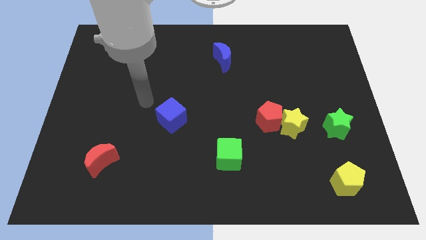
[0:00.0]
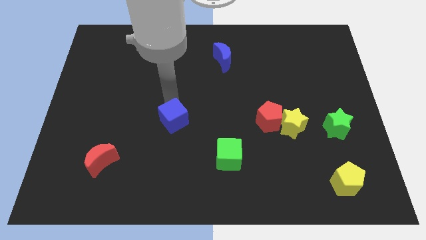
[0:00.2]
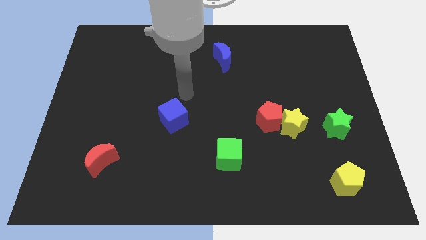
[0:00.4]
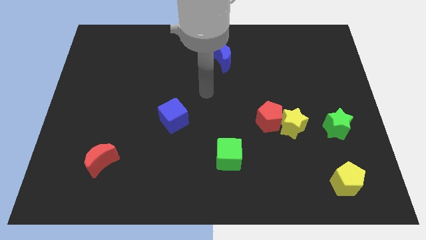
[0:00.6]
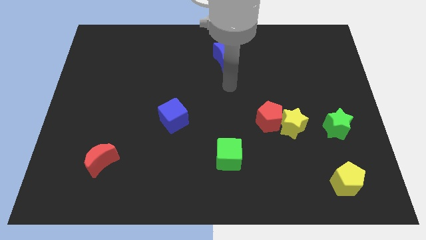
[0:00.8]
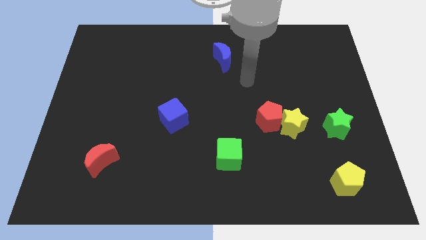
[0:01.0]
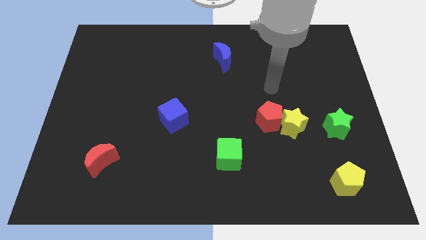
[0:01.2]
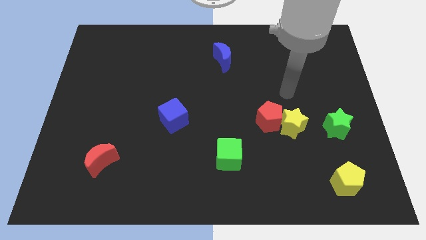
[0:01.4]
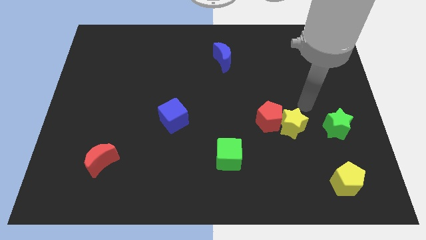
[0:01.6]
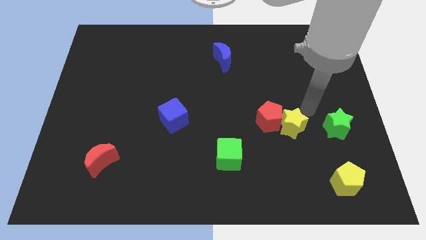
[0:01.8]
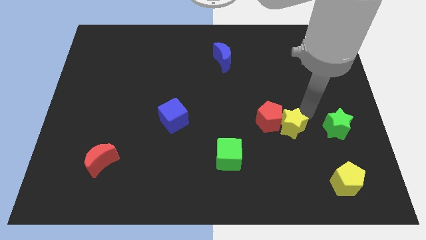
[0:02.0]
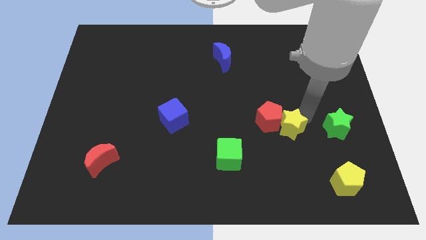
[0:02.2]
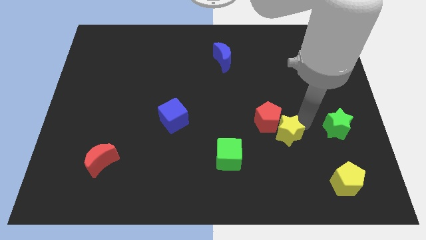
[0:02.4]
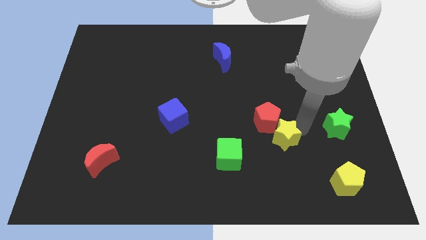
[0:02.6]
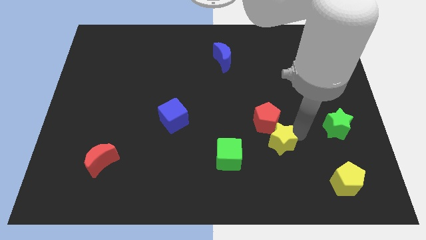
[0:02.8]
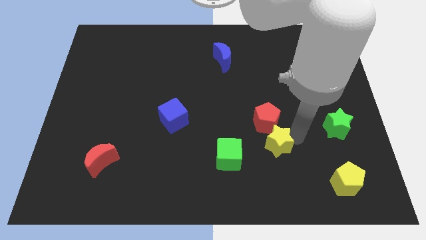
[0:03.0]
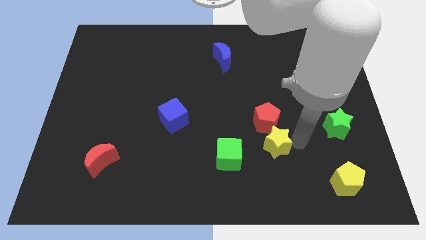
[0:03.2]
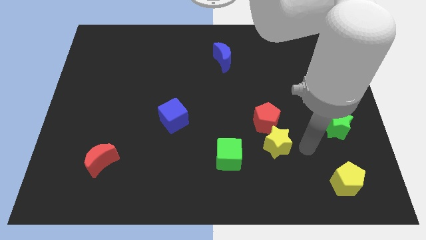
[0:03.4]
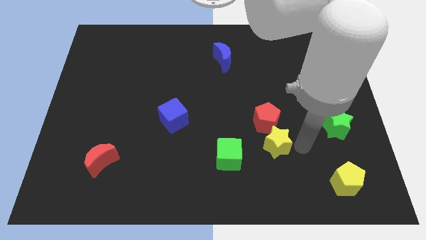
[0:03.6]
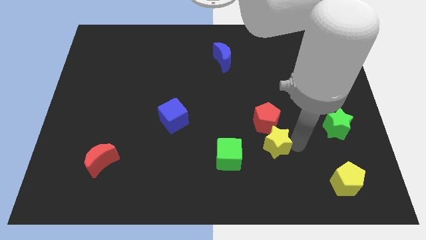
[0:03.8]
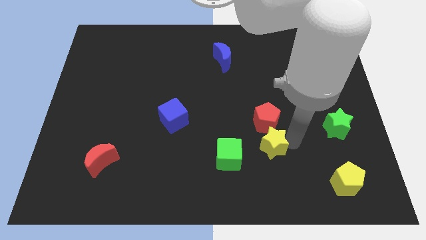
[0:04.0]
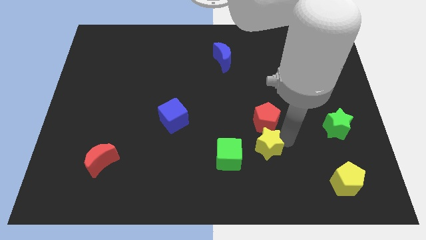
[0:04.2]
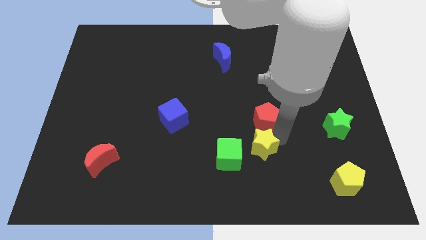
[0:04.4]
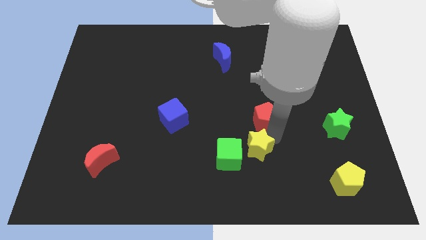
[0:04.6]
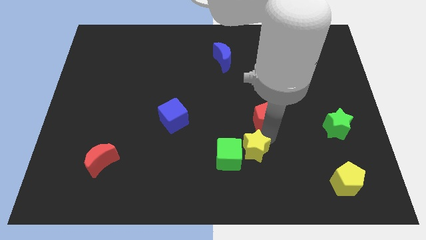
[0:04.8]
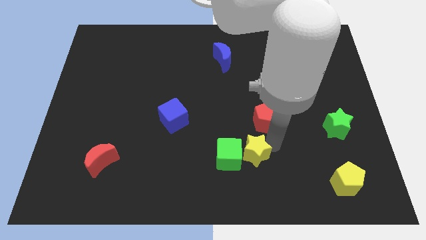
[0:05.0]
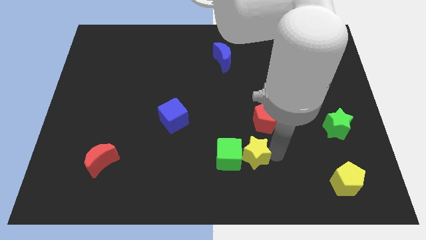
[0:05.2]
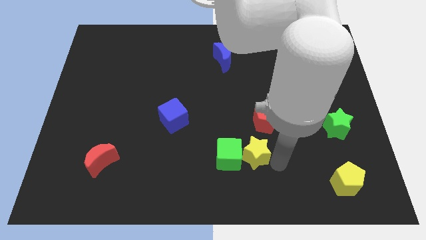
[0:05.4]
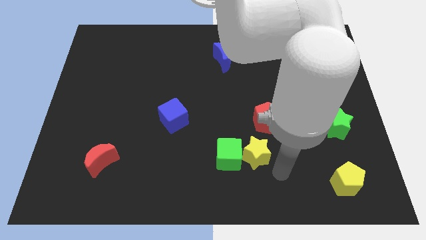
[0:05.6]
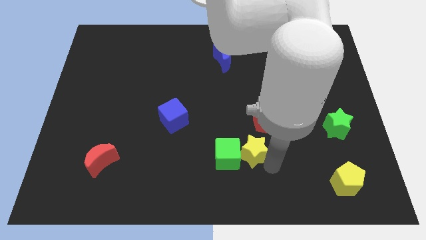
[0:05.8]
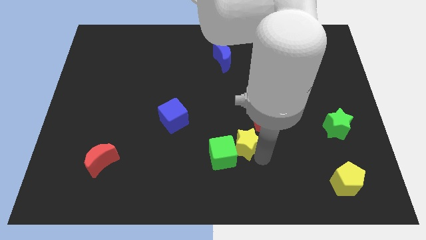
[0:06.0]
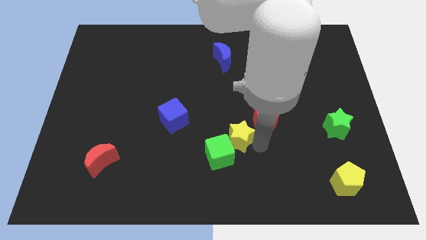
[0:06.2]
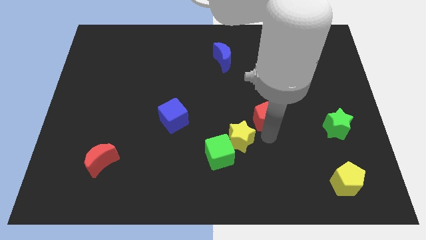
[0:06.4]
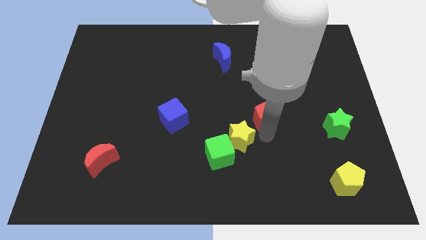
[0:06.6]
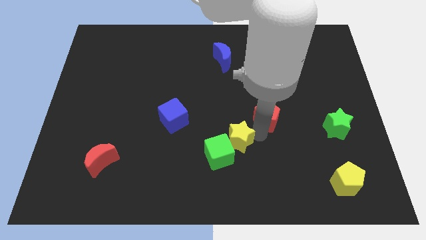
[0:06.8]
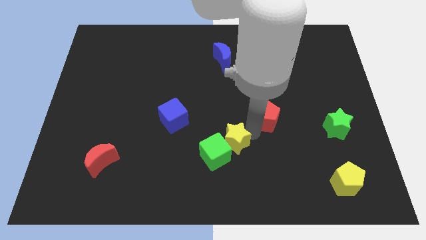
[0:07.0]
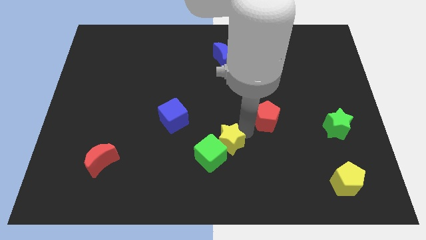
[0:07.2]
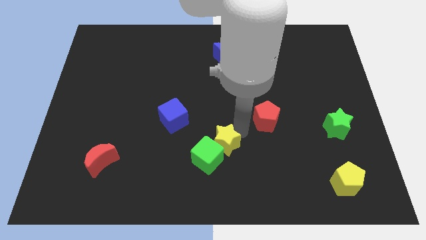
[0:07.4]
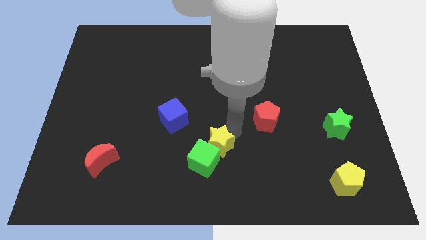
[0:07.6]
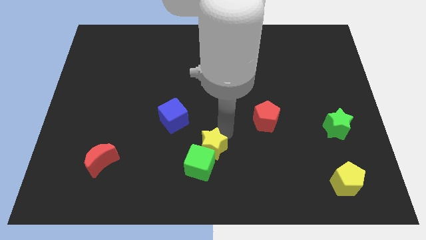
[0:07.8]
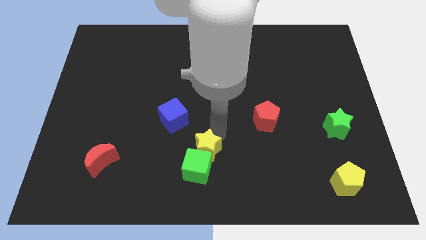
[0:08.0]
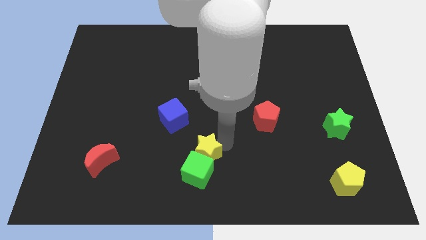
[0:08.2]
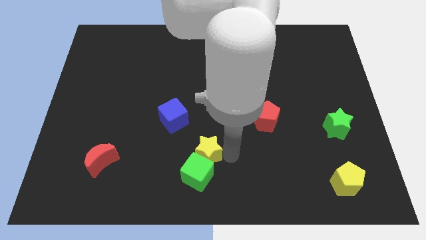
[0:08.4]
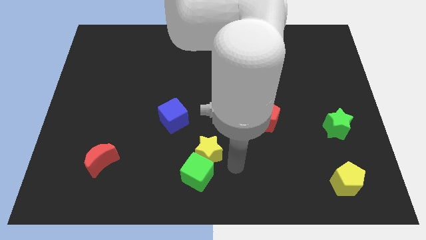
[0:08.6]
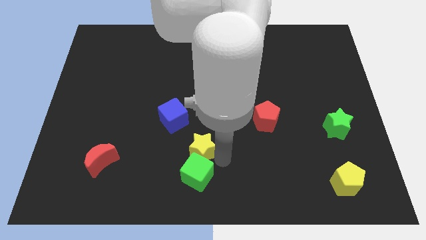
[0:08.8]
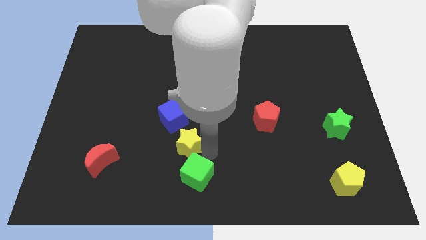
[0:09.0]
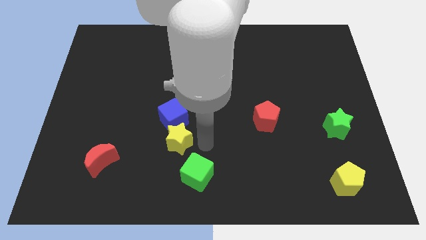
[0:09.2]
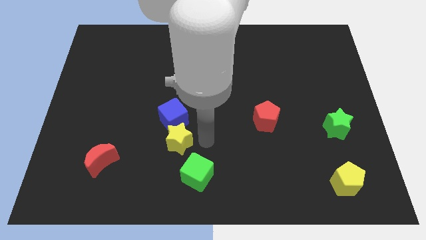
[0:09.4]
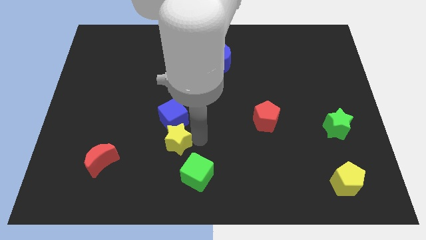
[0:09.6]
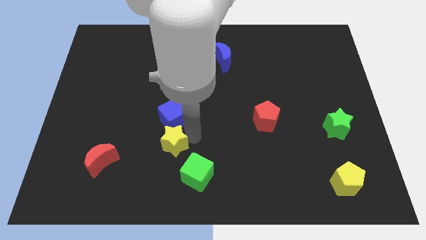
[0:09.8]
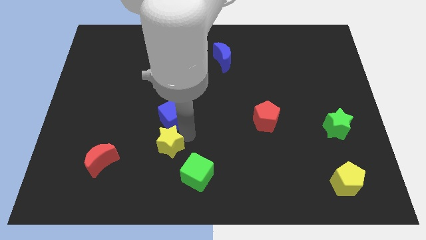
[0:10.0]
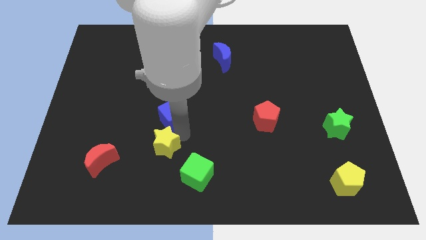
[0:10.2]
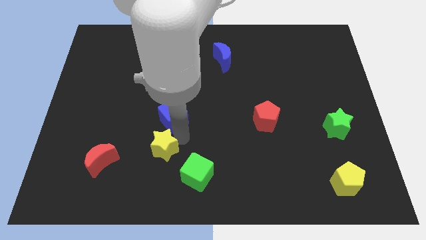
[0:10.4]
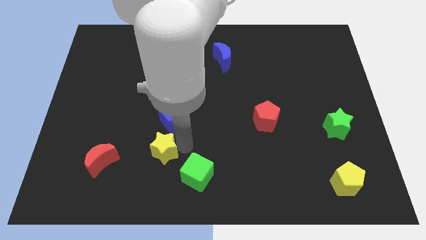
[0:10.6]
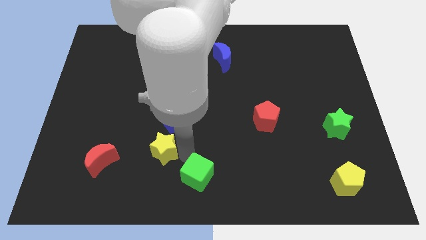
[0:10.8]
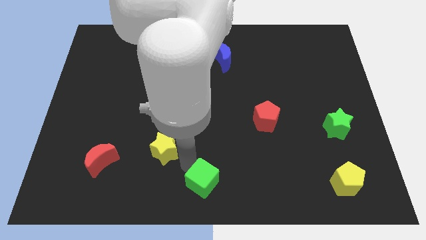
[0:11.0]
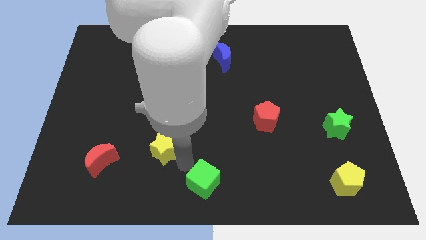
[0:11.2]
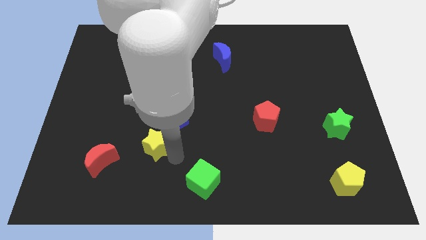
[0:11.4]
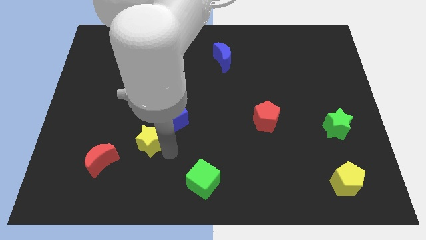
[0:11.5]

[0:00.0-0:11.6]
move the yellow star to the top right of the red moon

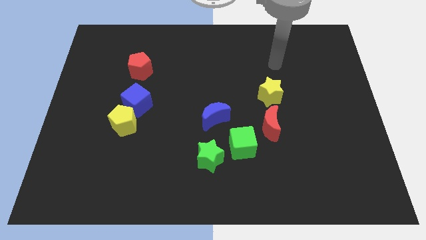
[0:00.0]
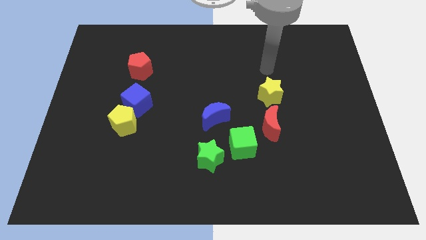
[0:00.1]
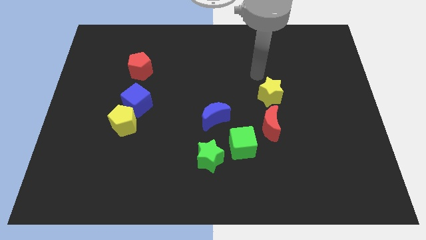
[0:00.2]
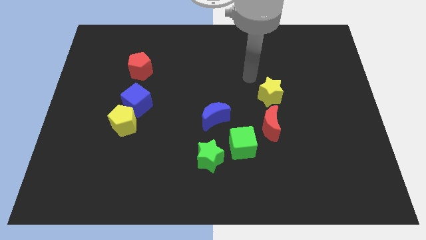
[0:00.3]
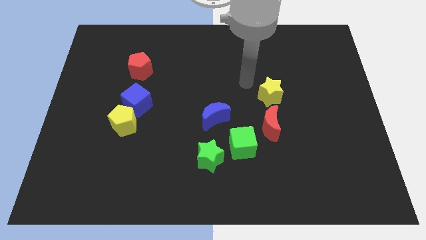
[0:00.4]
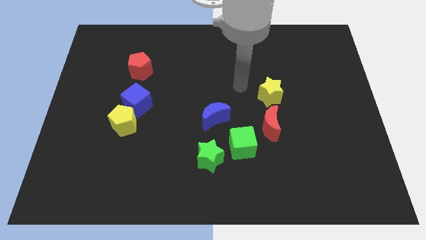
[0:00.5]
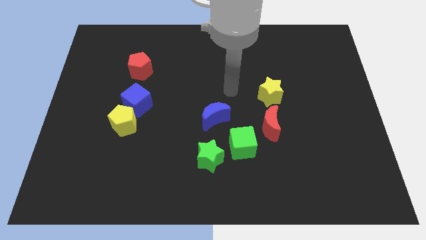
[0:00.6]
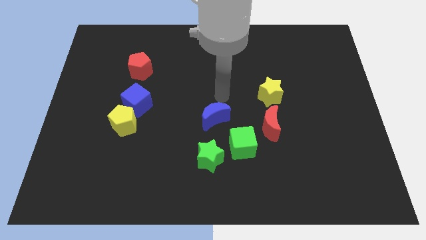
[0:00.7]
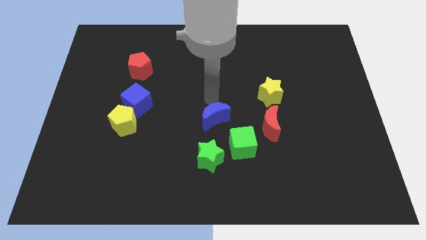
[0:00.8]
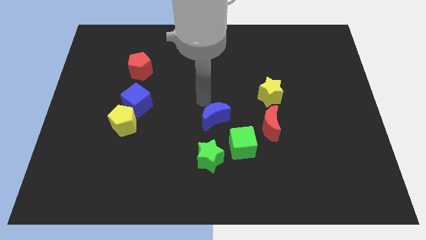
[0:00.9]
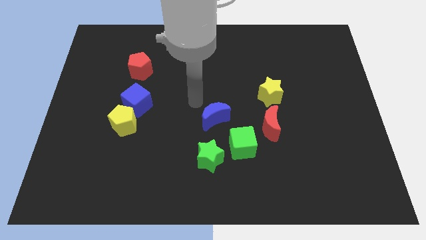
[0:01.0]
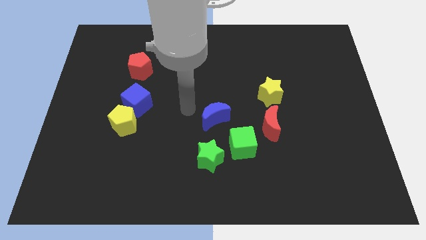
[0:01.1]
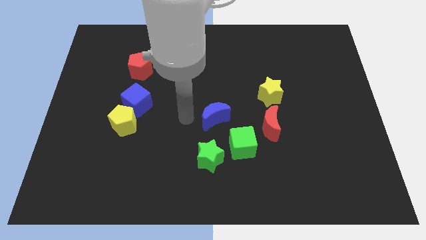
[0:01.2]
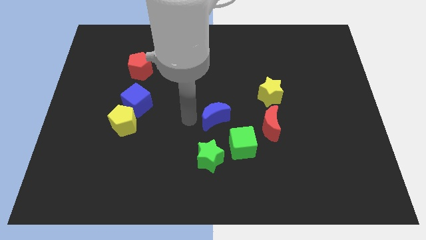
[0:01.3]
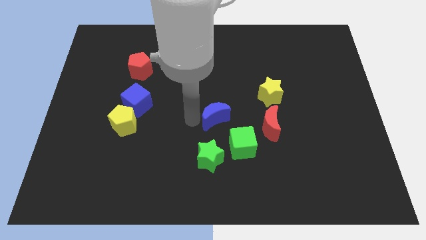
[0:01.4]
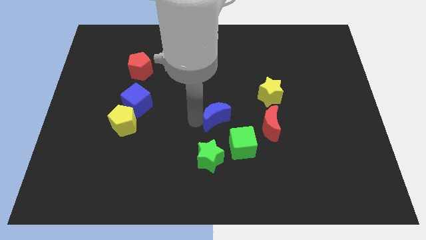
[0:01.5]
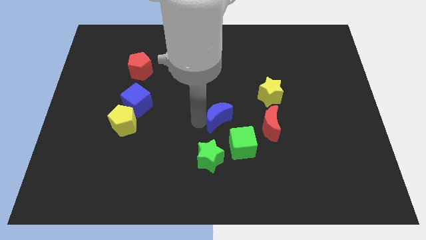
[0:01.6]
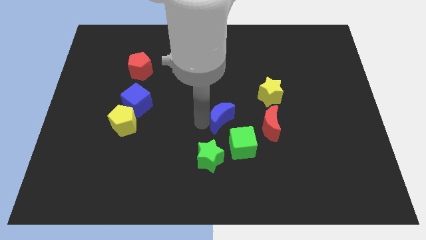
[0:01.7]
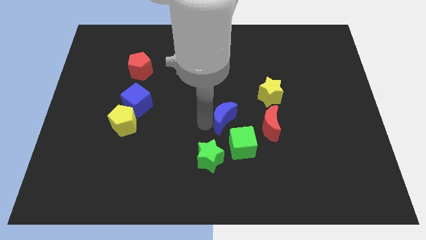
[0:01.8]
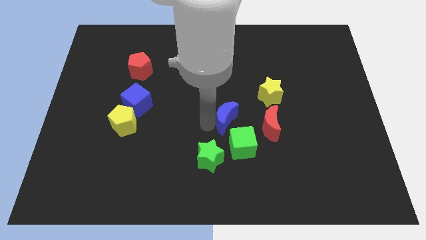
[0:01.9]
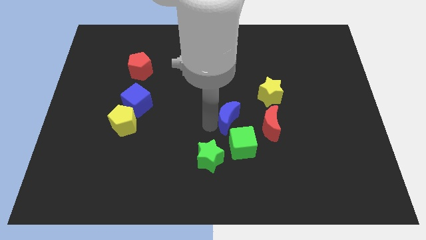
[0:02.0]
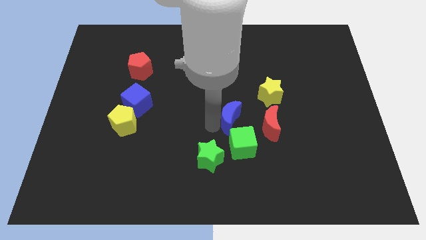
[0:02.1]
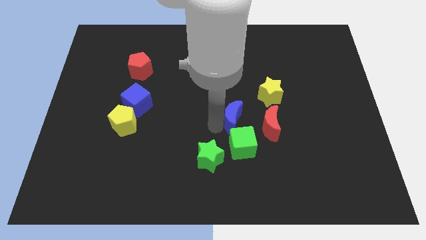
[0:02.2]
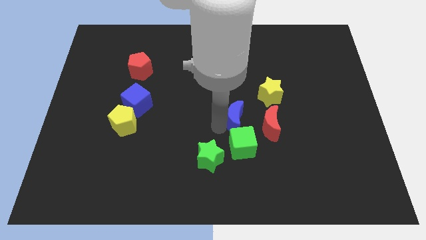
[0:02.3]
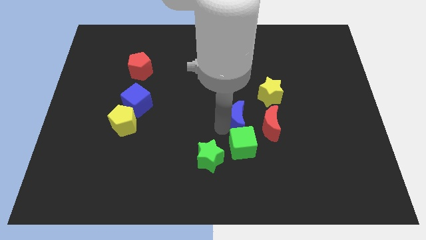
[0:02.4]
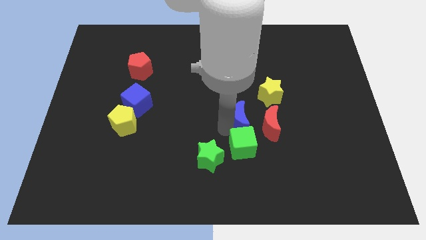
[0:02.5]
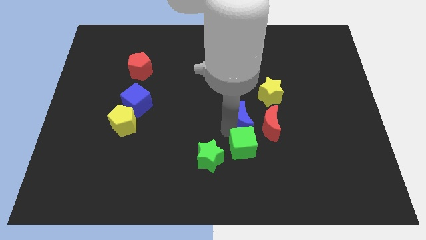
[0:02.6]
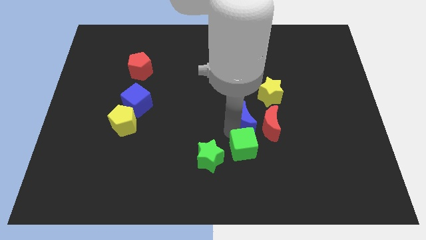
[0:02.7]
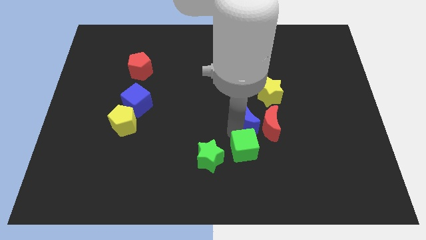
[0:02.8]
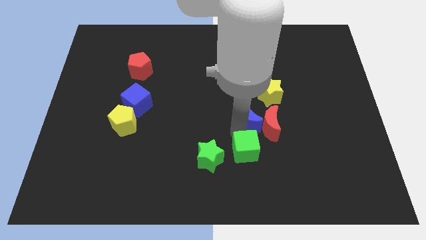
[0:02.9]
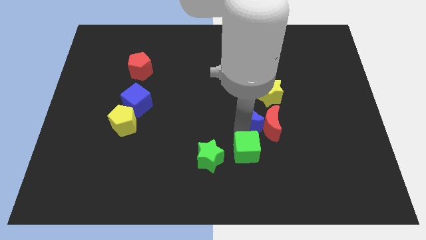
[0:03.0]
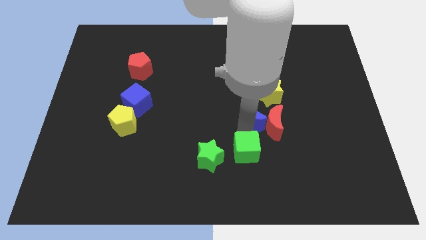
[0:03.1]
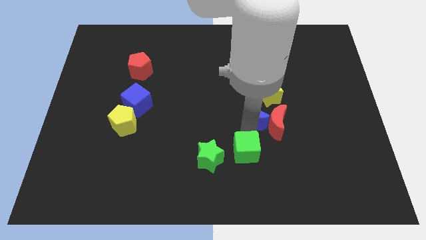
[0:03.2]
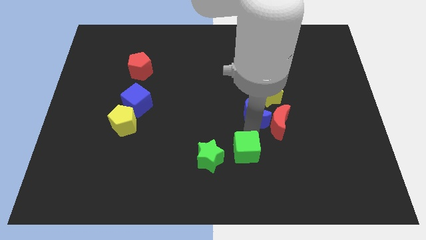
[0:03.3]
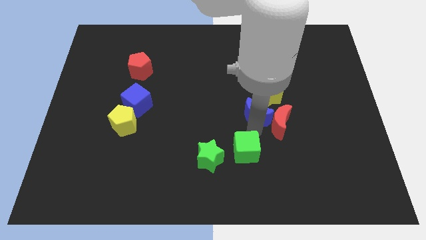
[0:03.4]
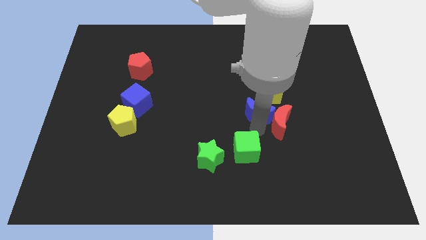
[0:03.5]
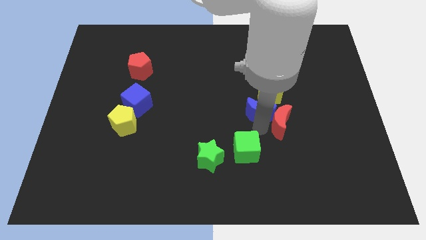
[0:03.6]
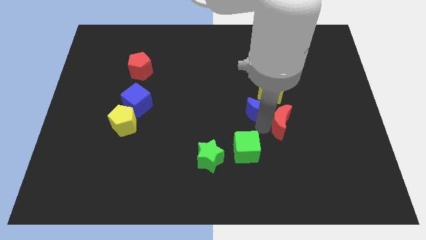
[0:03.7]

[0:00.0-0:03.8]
slide the blue moon to the top side of the red moon
